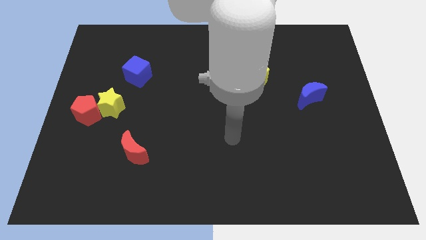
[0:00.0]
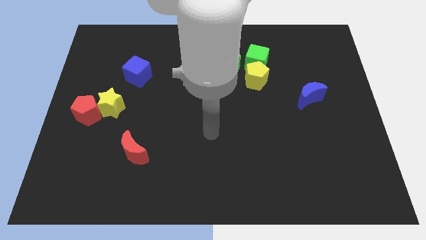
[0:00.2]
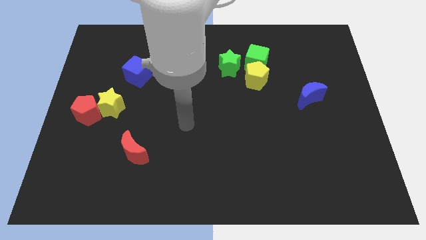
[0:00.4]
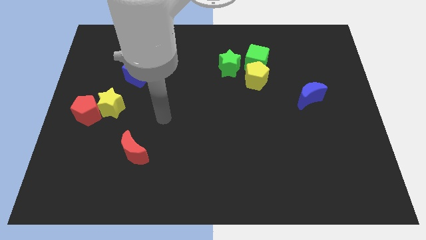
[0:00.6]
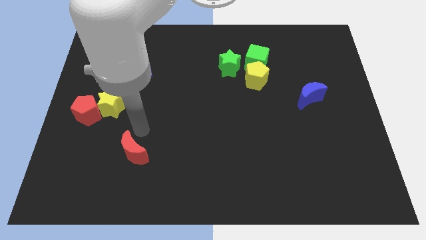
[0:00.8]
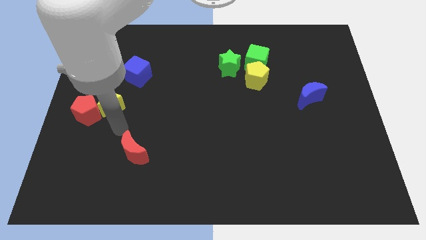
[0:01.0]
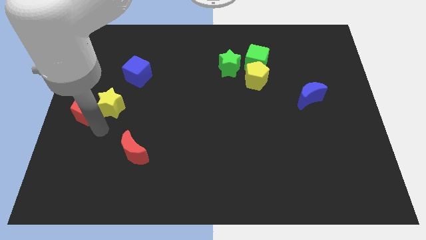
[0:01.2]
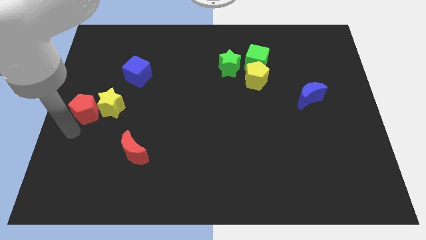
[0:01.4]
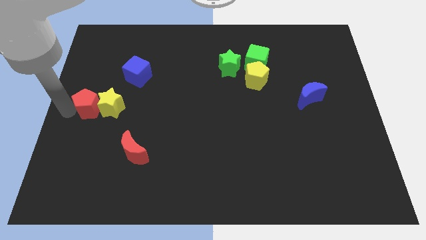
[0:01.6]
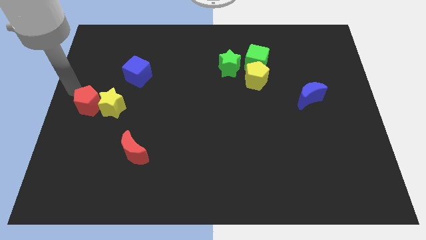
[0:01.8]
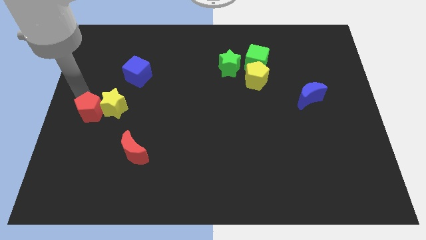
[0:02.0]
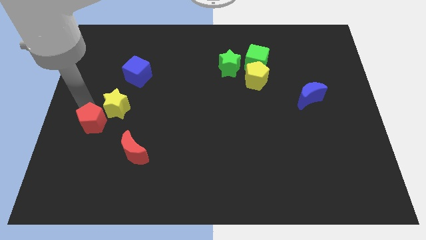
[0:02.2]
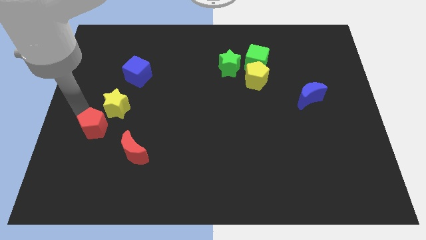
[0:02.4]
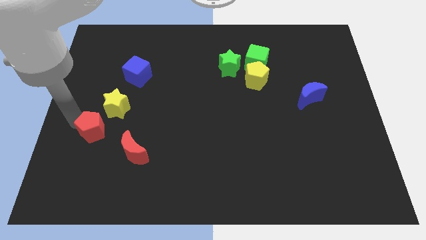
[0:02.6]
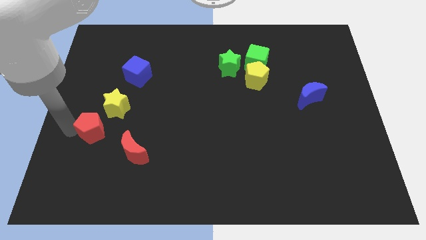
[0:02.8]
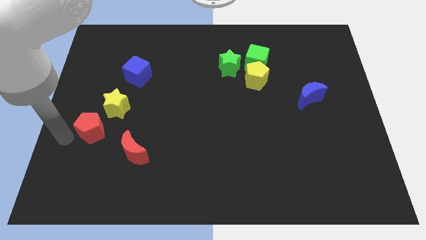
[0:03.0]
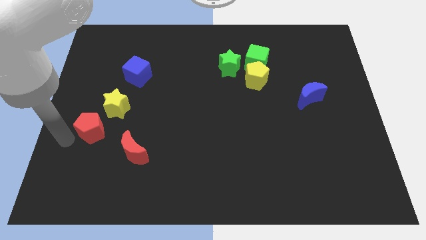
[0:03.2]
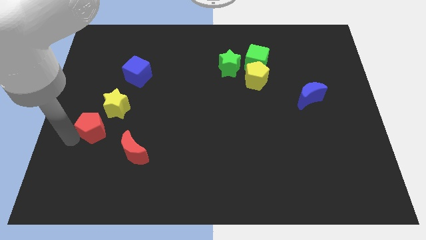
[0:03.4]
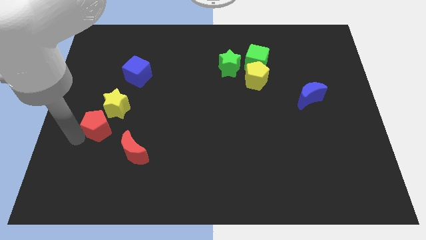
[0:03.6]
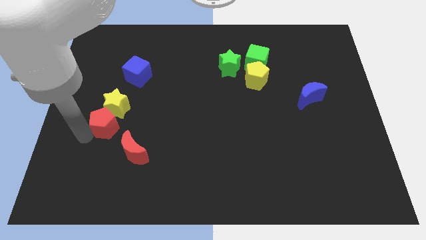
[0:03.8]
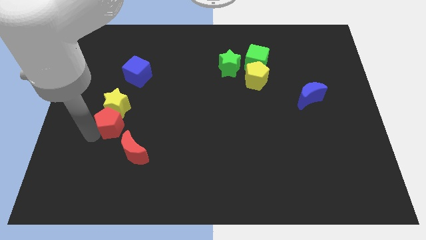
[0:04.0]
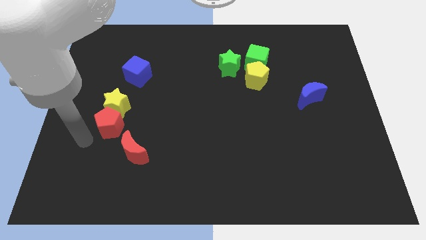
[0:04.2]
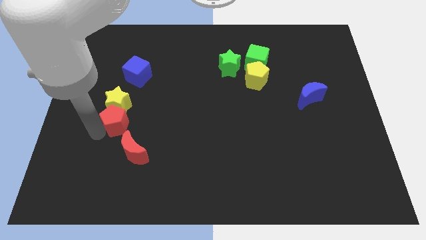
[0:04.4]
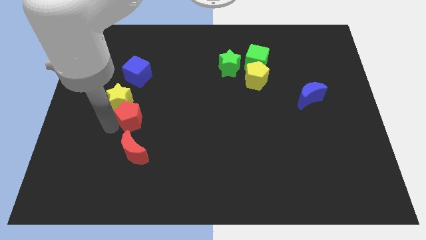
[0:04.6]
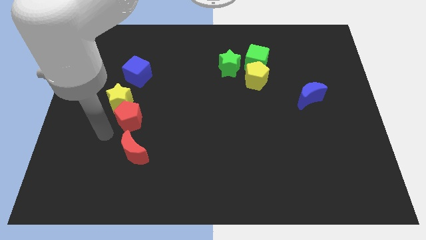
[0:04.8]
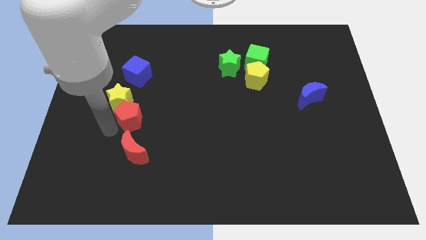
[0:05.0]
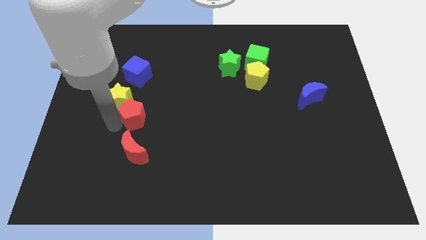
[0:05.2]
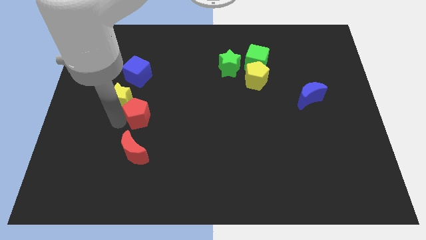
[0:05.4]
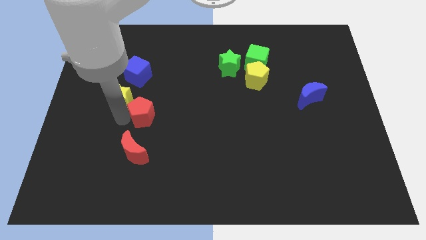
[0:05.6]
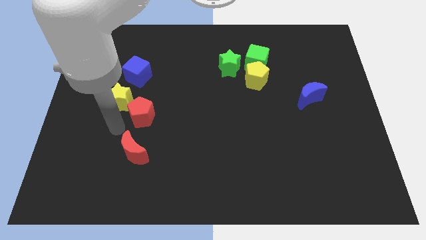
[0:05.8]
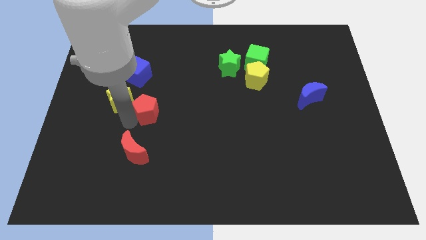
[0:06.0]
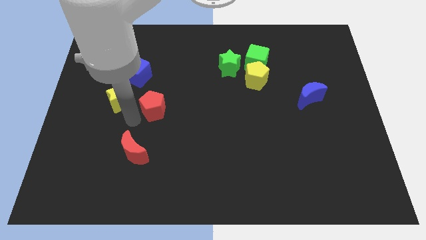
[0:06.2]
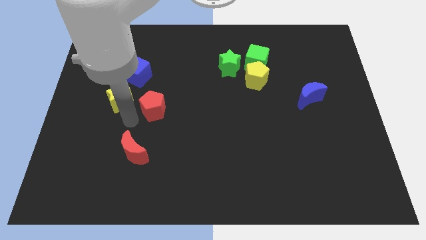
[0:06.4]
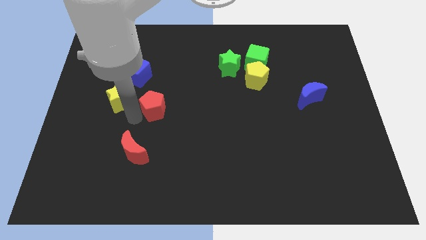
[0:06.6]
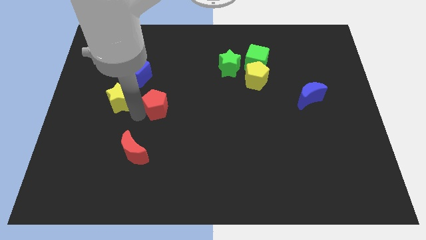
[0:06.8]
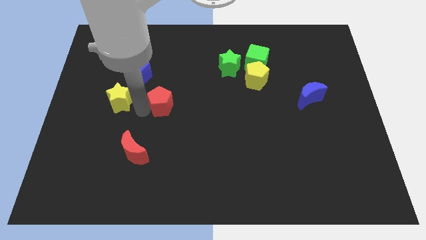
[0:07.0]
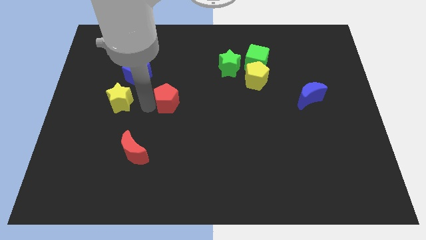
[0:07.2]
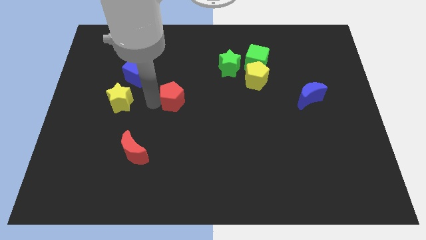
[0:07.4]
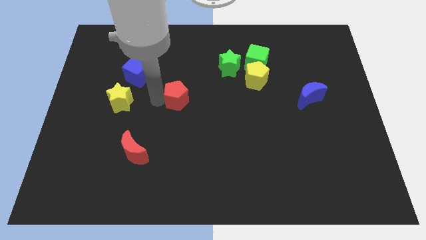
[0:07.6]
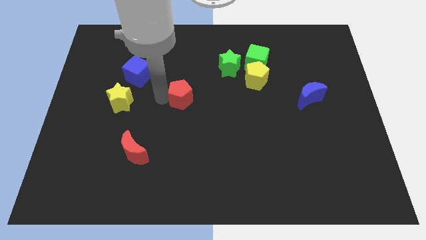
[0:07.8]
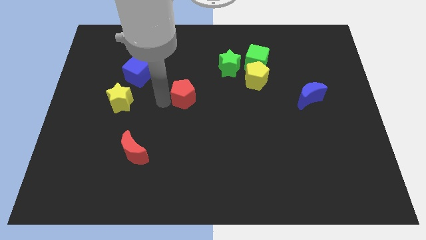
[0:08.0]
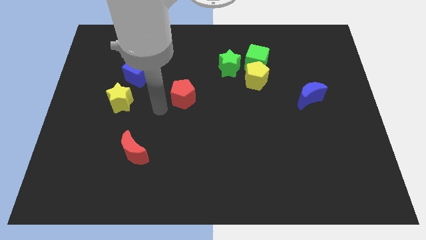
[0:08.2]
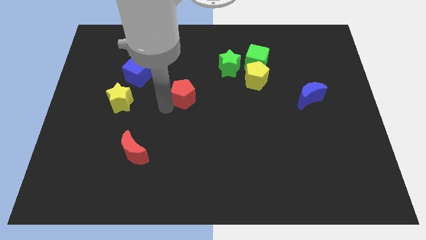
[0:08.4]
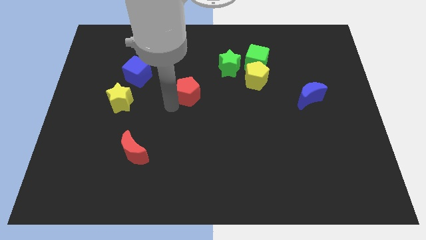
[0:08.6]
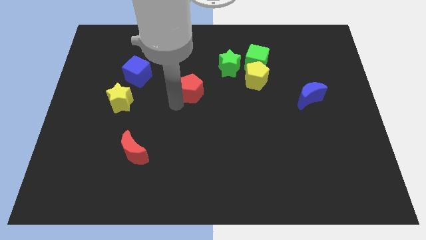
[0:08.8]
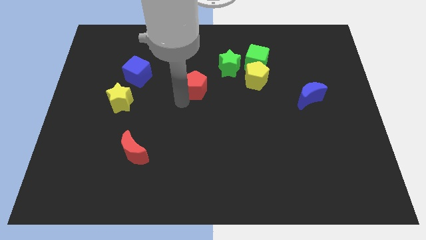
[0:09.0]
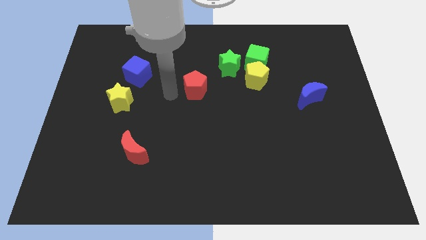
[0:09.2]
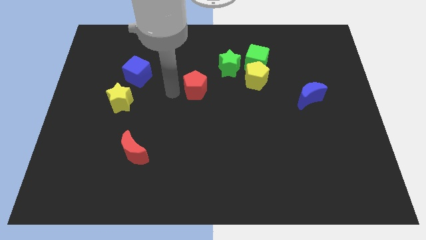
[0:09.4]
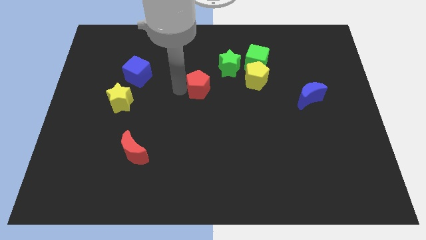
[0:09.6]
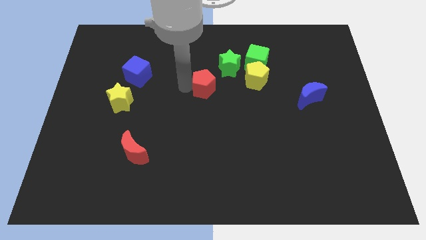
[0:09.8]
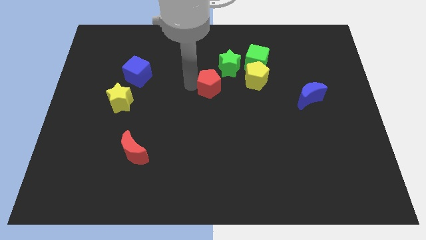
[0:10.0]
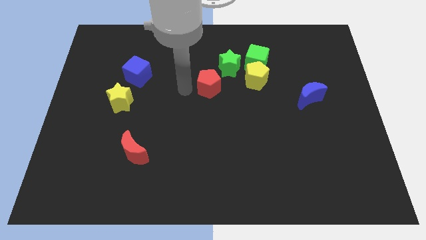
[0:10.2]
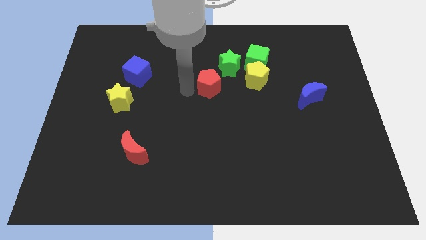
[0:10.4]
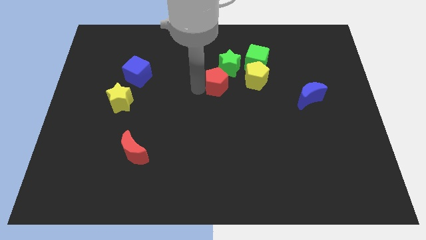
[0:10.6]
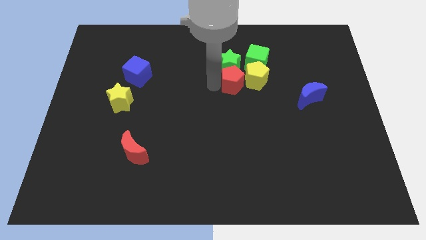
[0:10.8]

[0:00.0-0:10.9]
slide the red pentagon to the yellow pentagon

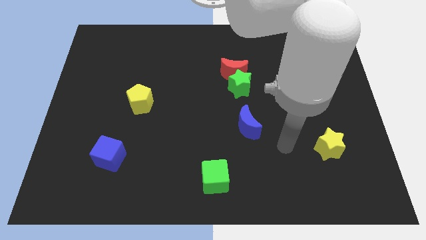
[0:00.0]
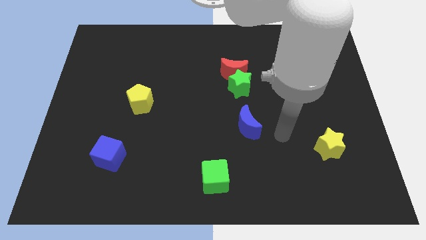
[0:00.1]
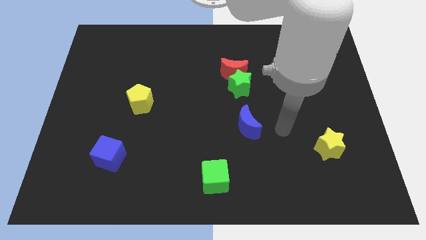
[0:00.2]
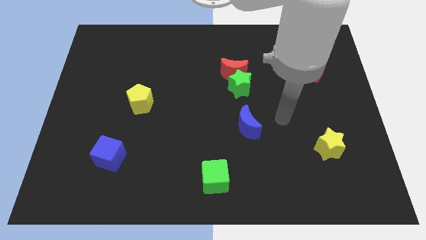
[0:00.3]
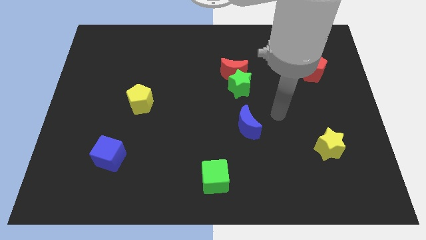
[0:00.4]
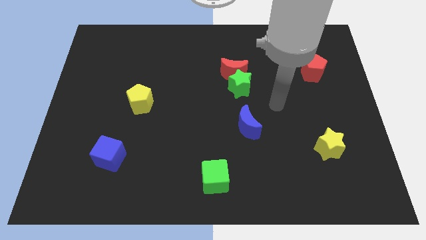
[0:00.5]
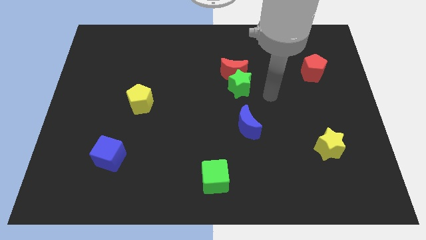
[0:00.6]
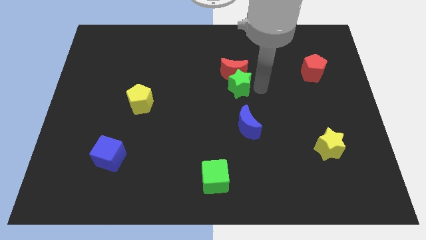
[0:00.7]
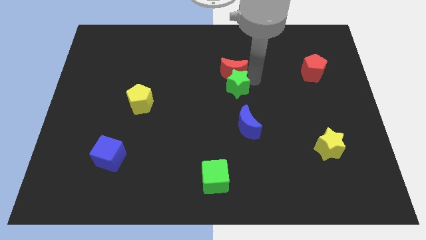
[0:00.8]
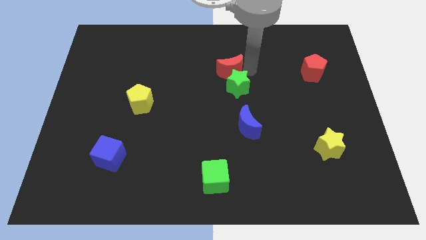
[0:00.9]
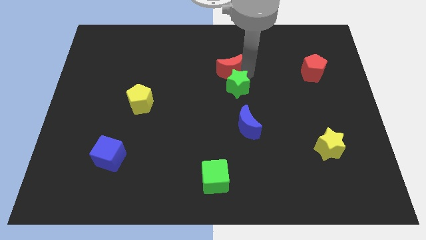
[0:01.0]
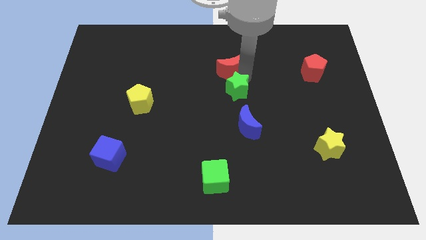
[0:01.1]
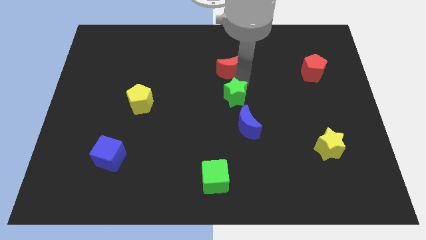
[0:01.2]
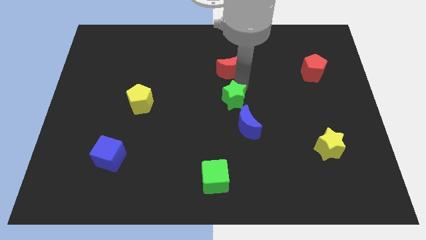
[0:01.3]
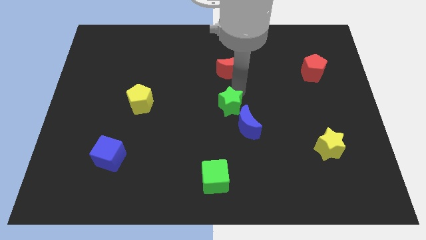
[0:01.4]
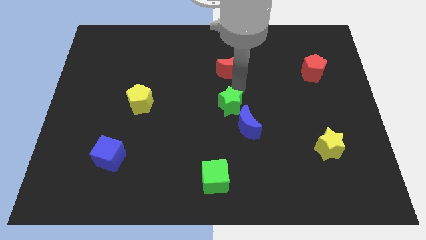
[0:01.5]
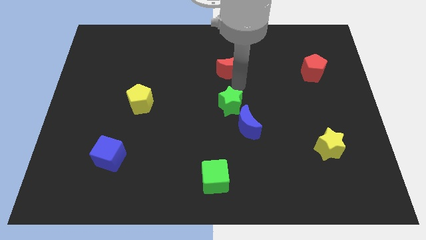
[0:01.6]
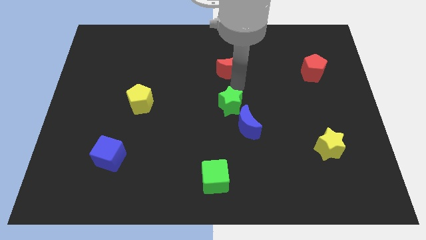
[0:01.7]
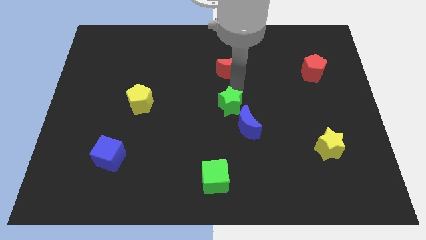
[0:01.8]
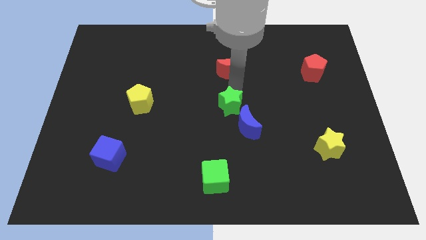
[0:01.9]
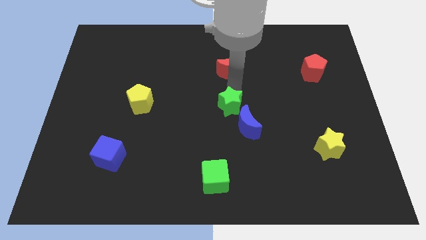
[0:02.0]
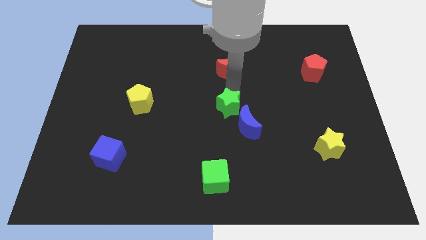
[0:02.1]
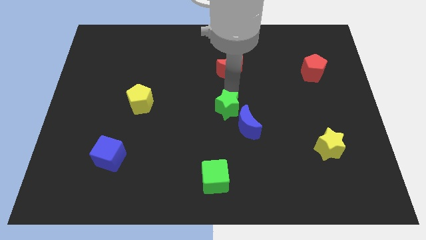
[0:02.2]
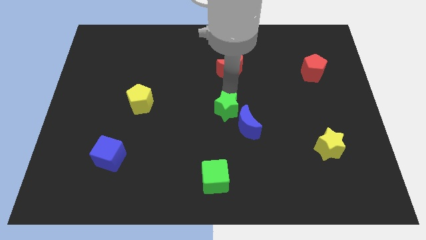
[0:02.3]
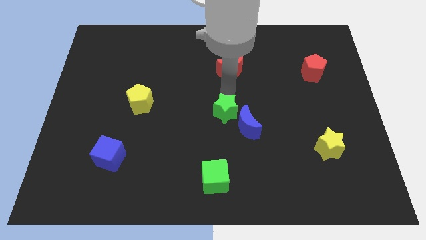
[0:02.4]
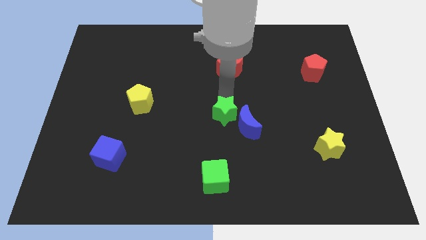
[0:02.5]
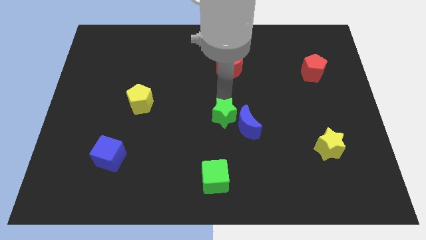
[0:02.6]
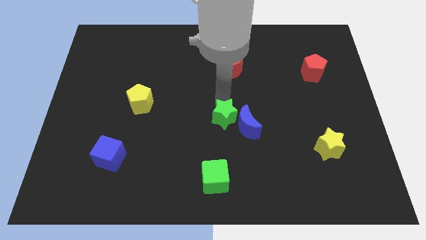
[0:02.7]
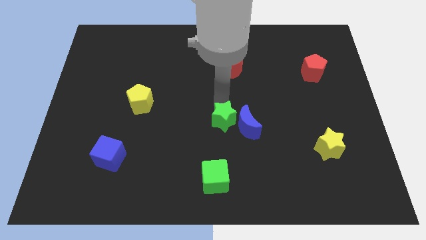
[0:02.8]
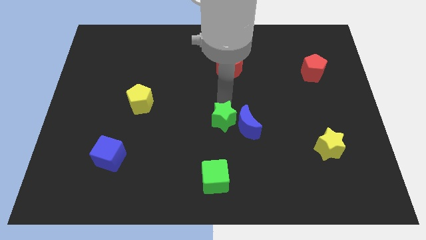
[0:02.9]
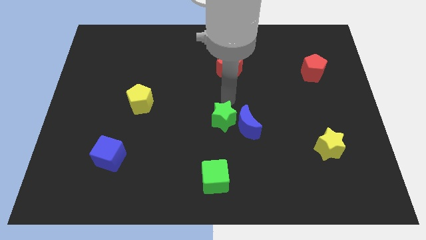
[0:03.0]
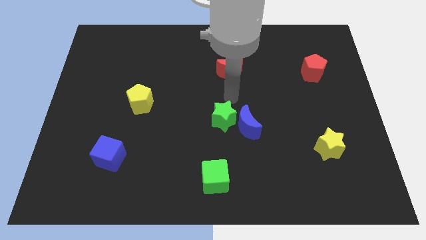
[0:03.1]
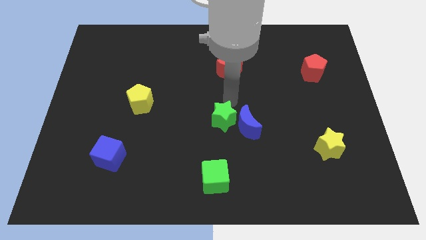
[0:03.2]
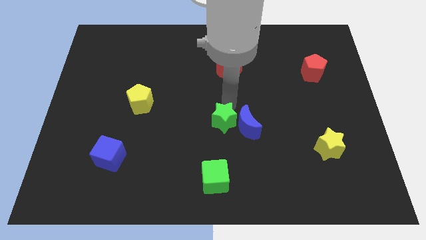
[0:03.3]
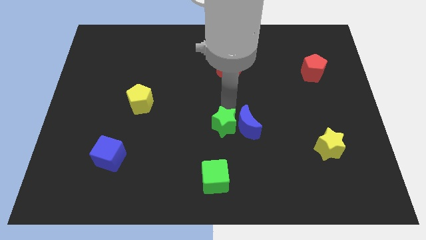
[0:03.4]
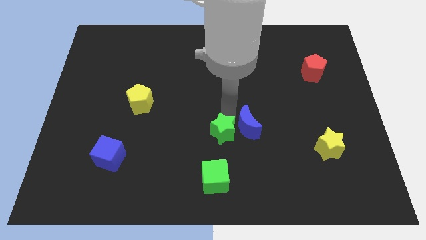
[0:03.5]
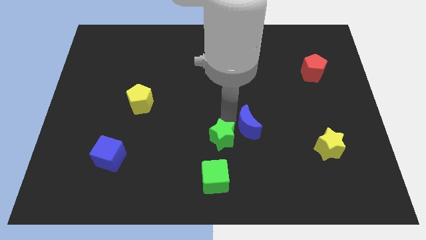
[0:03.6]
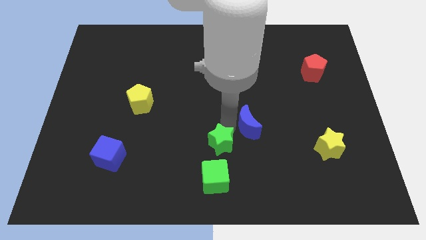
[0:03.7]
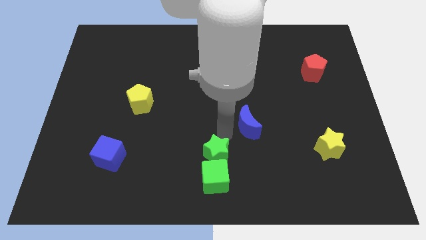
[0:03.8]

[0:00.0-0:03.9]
put the green star next to the green cube
